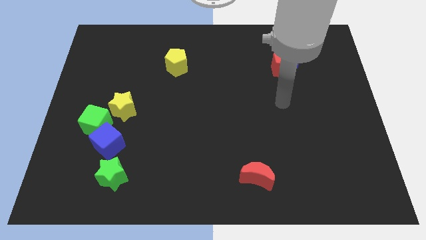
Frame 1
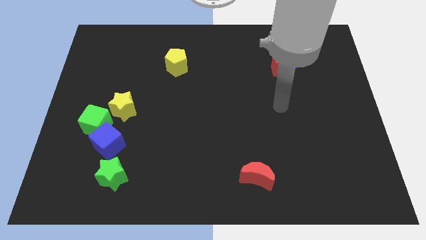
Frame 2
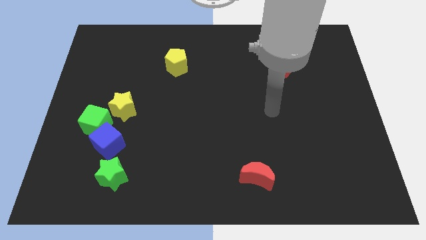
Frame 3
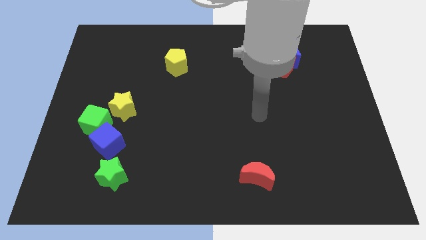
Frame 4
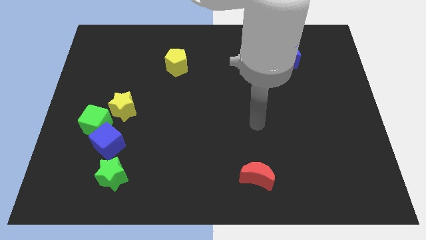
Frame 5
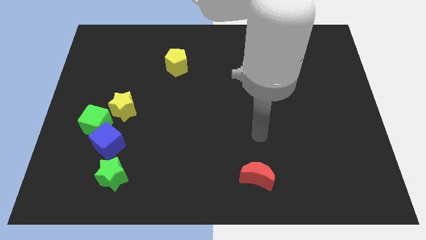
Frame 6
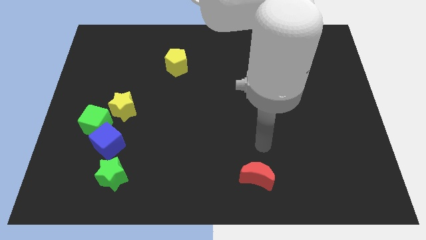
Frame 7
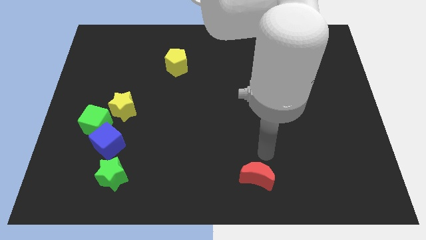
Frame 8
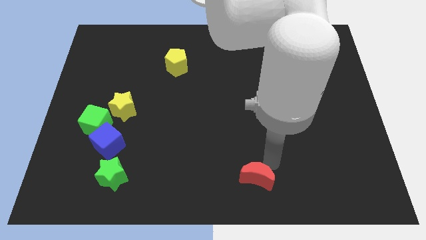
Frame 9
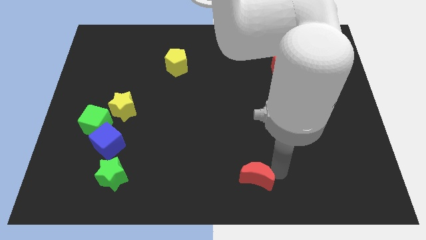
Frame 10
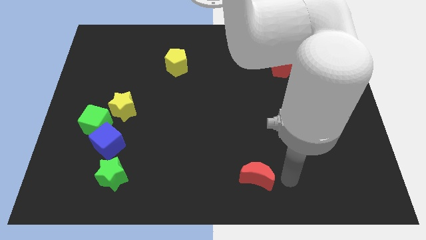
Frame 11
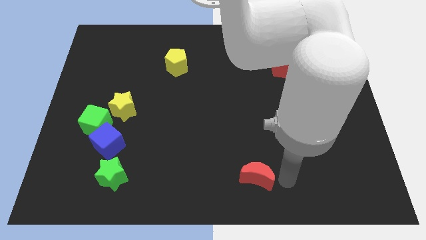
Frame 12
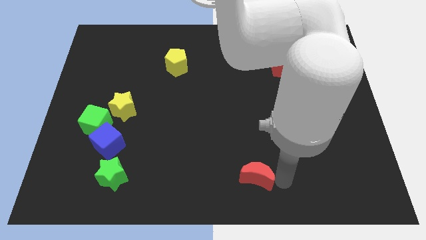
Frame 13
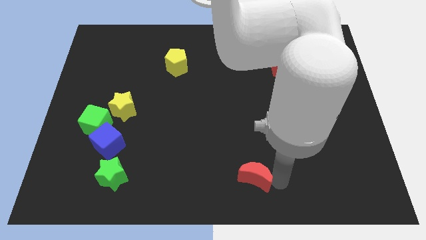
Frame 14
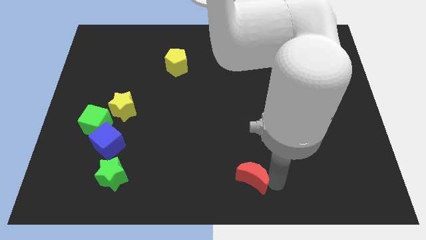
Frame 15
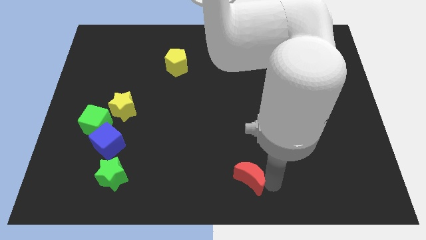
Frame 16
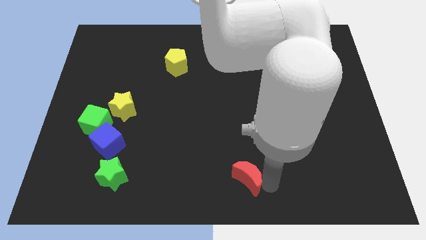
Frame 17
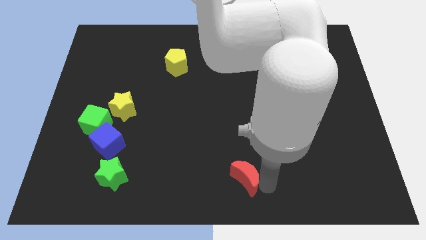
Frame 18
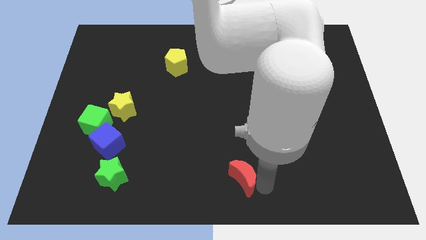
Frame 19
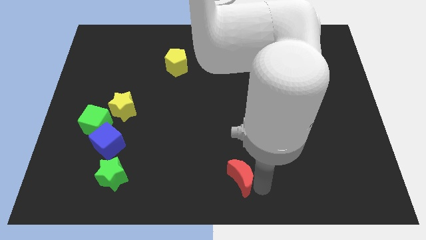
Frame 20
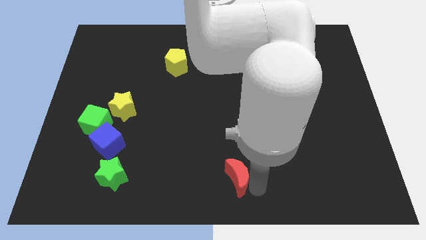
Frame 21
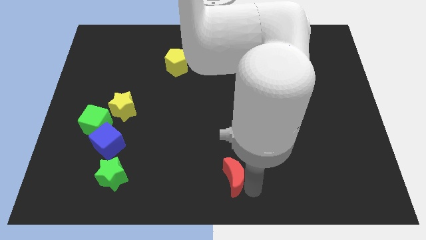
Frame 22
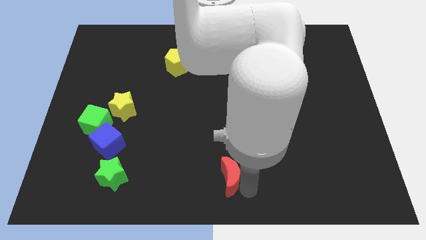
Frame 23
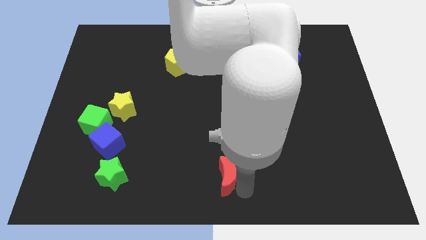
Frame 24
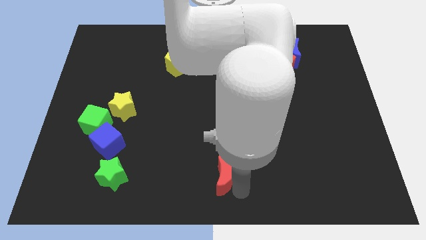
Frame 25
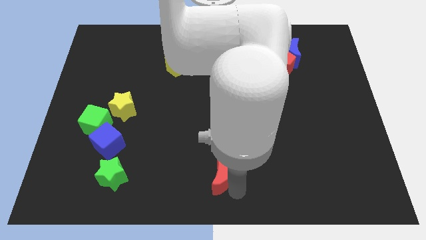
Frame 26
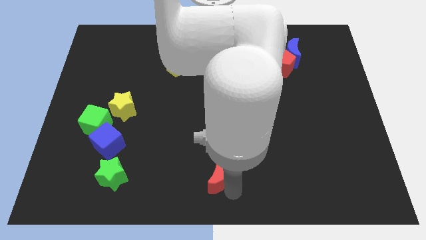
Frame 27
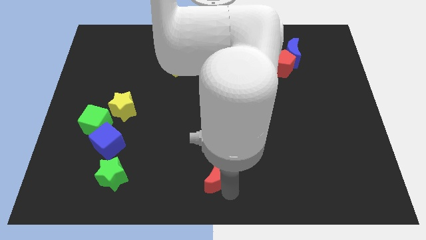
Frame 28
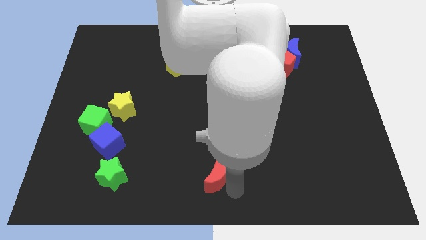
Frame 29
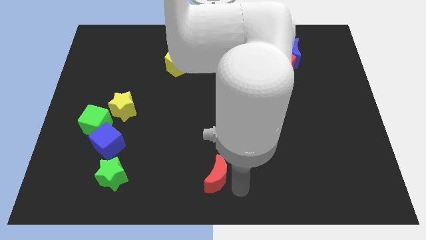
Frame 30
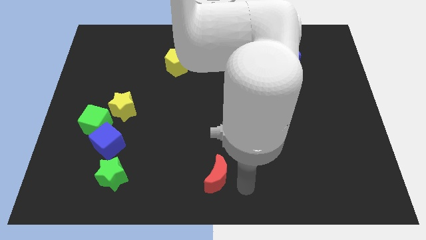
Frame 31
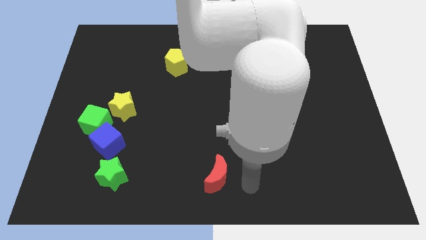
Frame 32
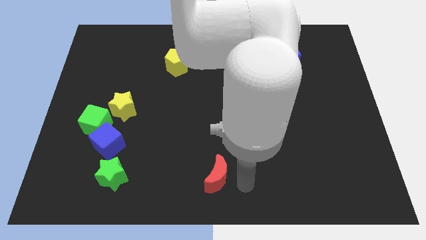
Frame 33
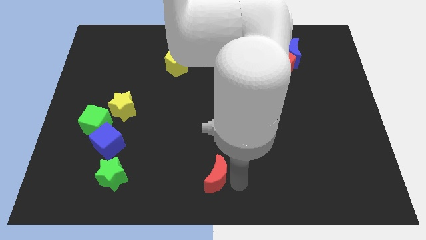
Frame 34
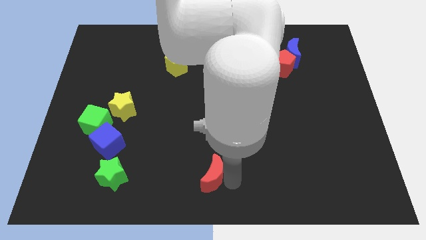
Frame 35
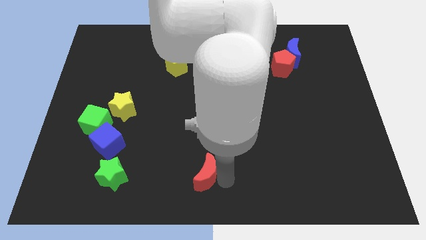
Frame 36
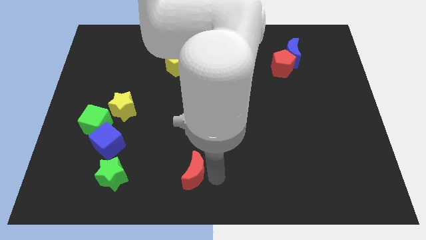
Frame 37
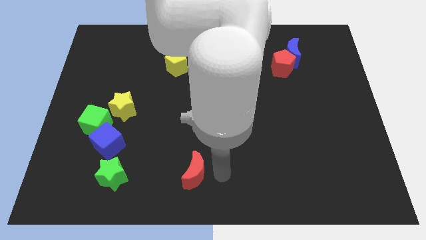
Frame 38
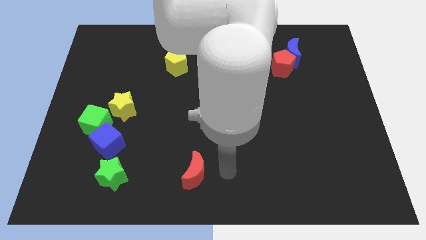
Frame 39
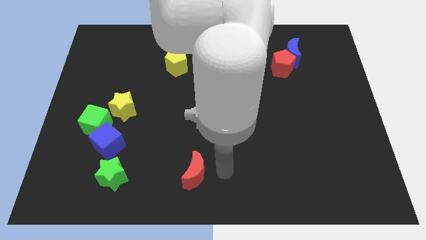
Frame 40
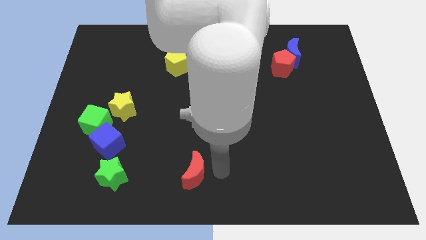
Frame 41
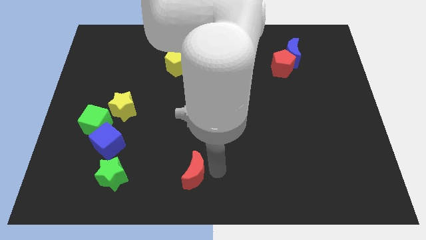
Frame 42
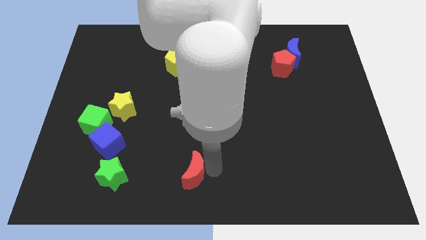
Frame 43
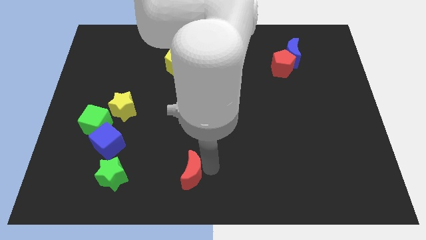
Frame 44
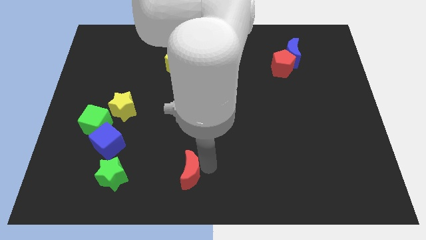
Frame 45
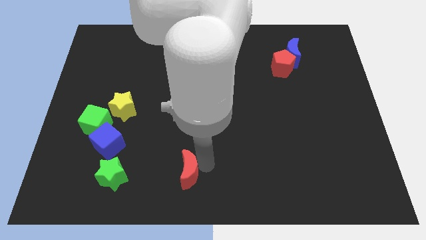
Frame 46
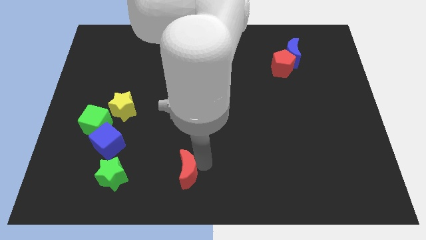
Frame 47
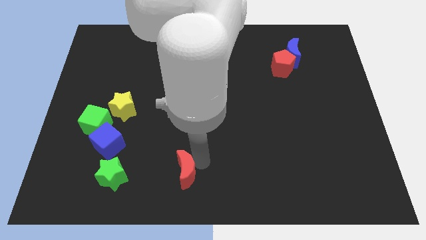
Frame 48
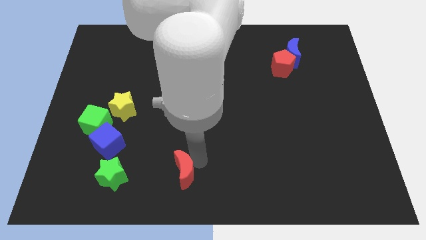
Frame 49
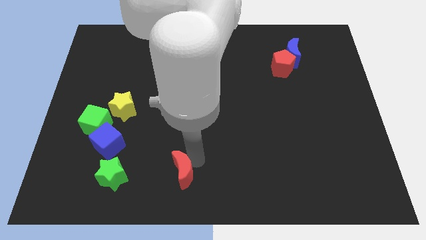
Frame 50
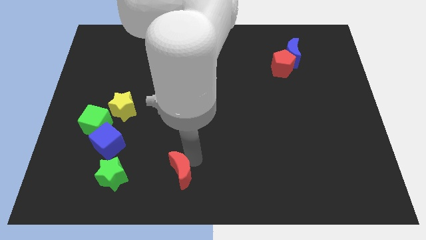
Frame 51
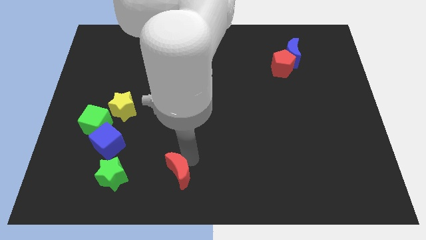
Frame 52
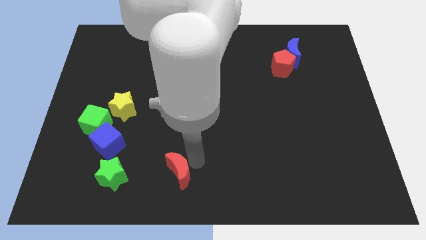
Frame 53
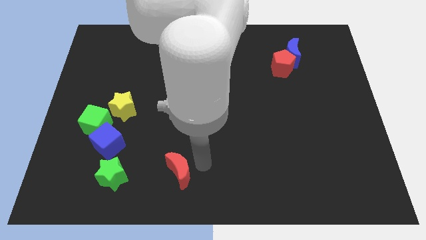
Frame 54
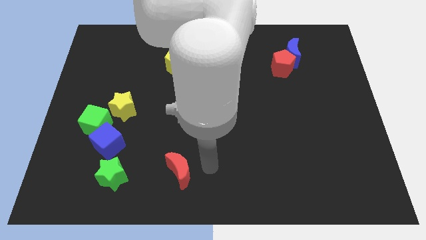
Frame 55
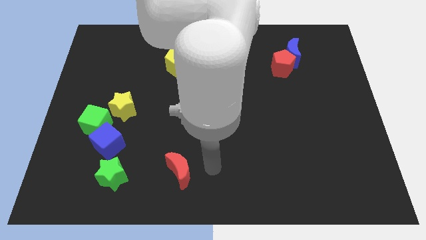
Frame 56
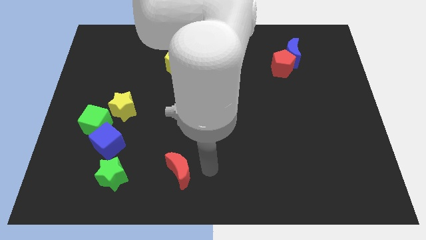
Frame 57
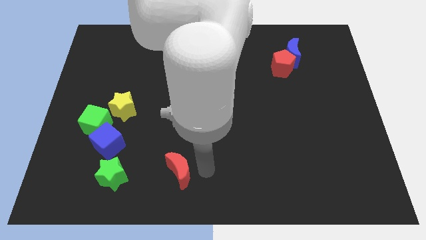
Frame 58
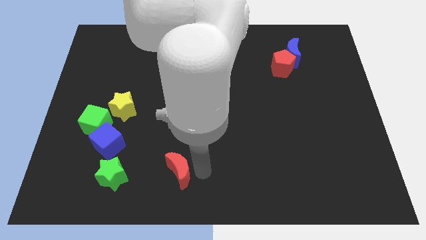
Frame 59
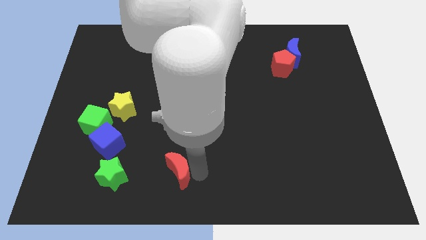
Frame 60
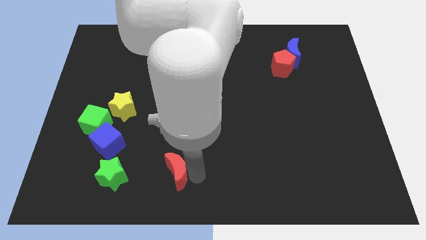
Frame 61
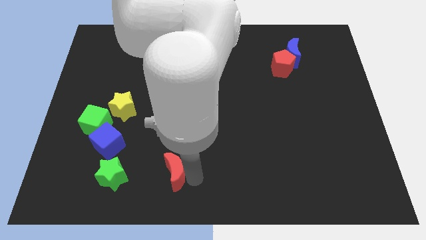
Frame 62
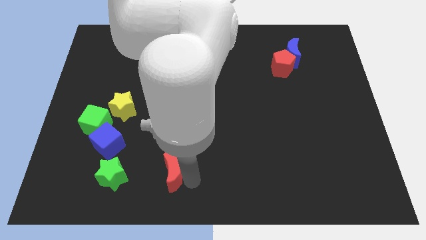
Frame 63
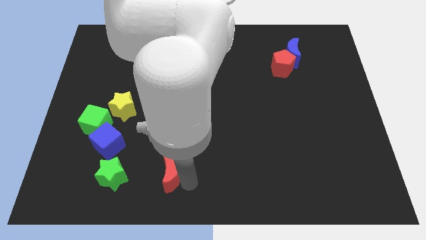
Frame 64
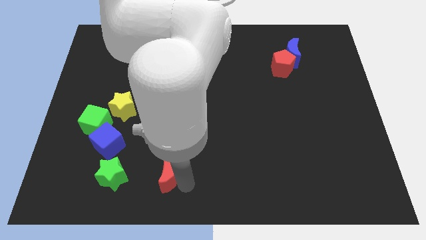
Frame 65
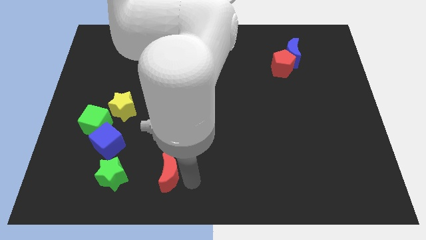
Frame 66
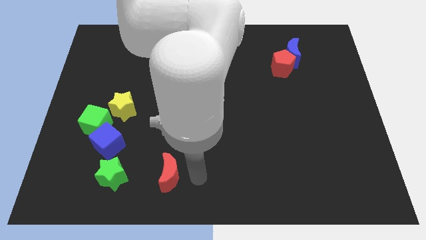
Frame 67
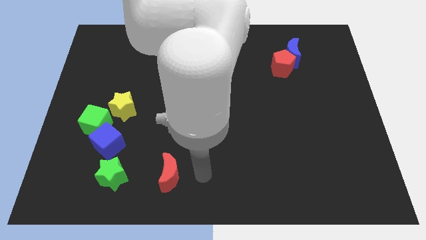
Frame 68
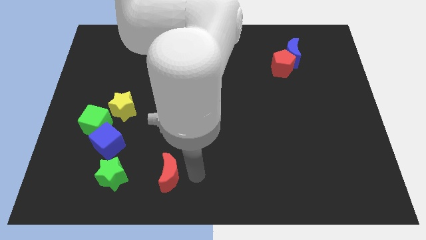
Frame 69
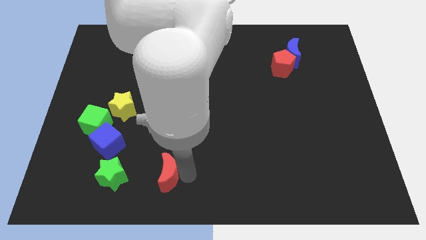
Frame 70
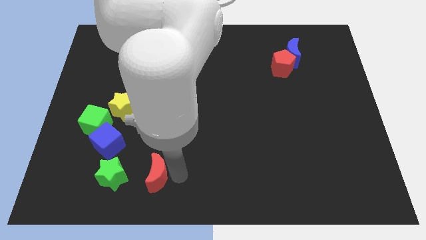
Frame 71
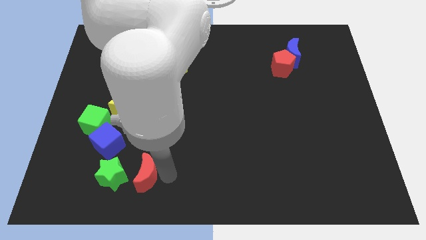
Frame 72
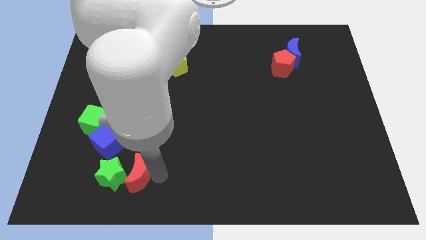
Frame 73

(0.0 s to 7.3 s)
slide the red moon close to the green star

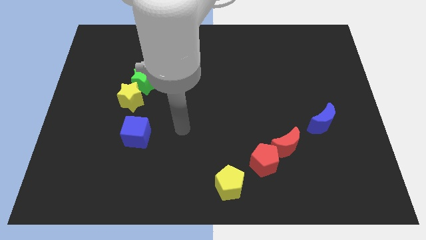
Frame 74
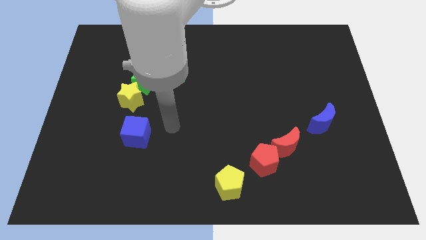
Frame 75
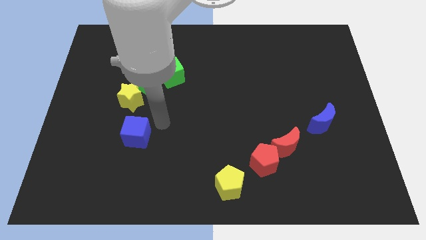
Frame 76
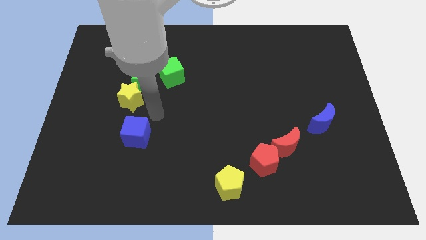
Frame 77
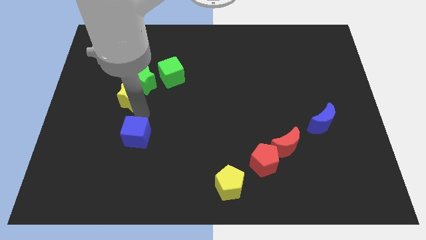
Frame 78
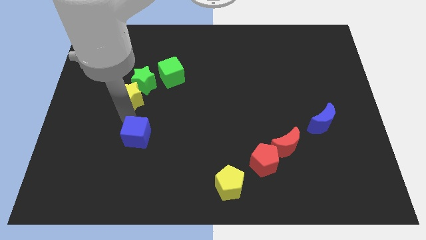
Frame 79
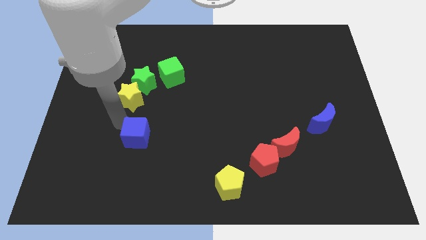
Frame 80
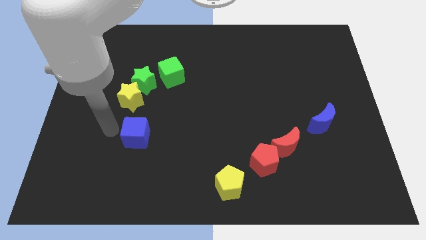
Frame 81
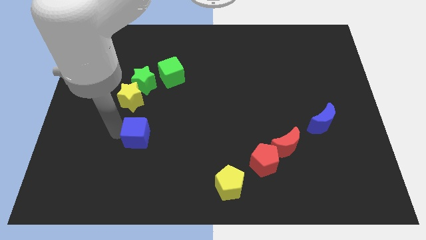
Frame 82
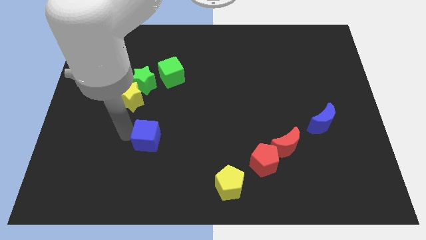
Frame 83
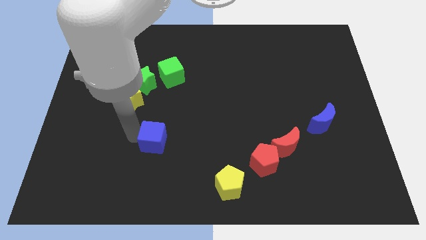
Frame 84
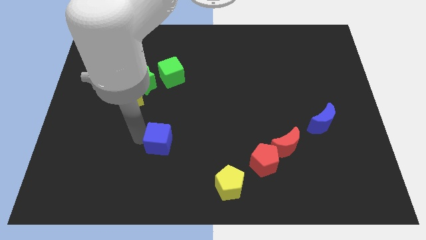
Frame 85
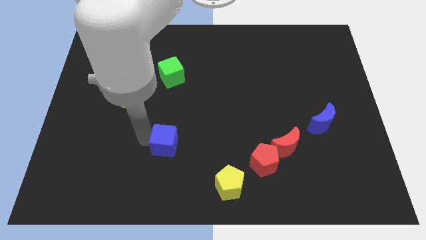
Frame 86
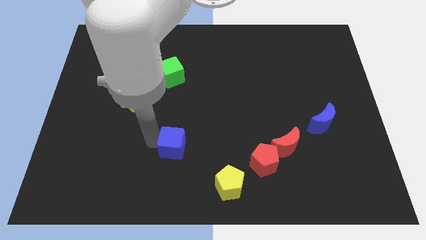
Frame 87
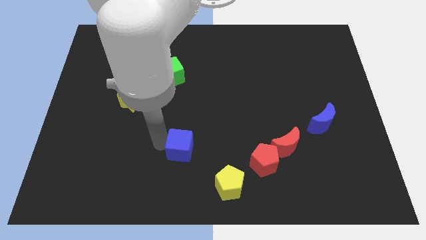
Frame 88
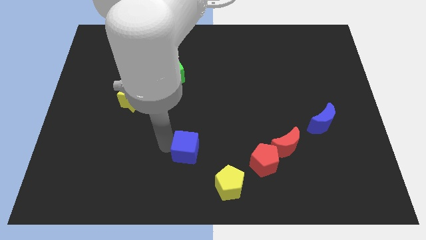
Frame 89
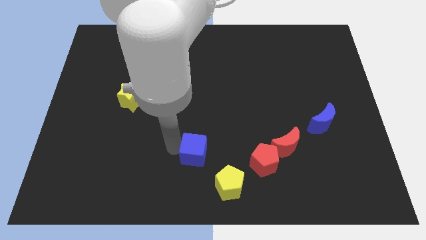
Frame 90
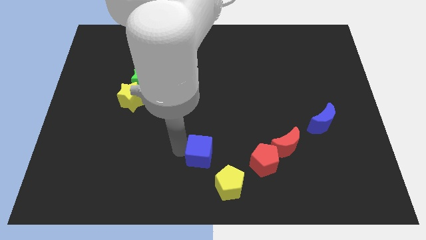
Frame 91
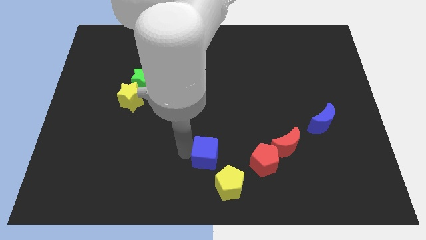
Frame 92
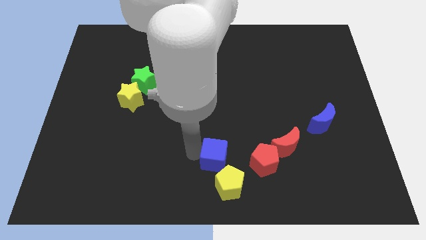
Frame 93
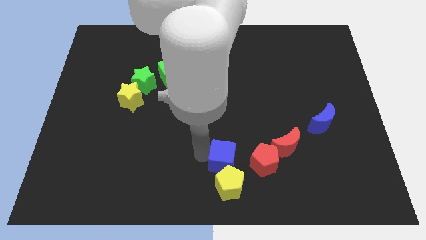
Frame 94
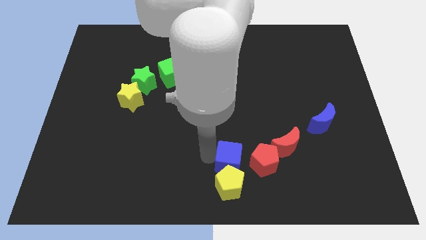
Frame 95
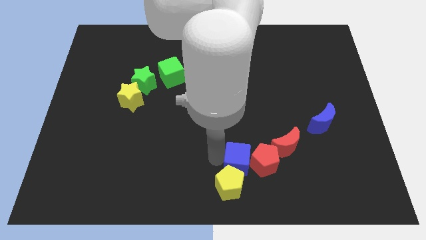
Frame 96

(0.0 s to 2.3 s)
push the blue cube next to the red pentagon
